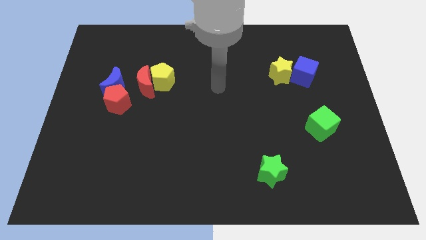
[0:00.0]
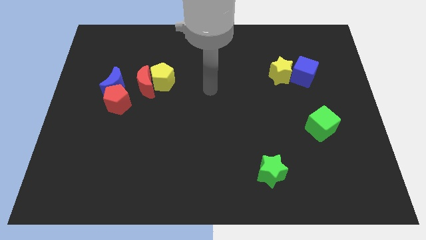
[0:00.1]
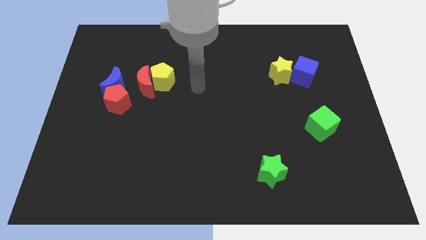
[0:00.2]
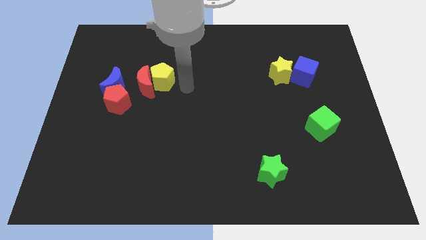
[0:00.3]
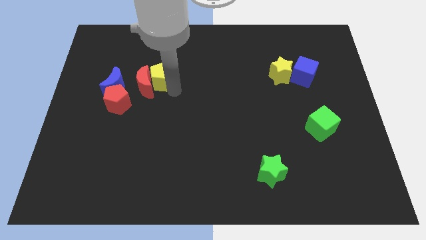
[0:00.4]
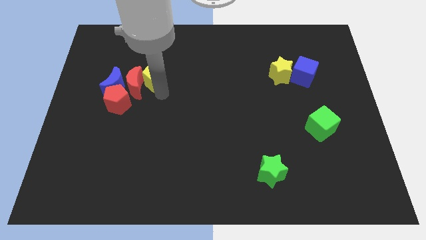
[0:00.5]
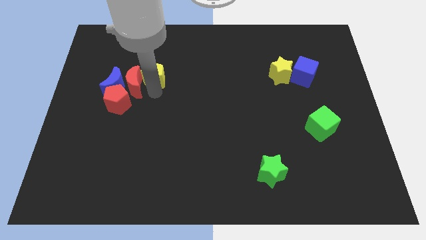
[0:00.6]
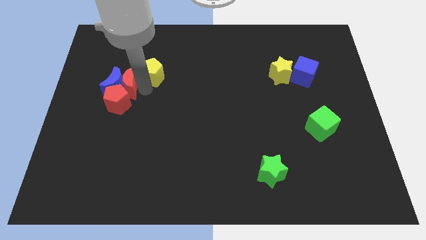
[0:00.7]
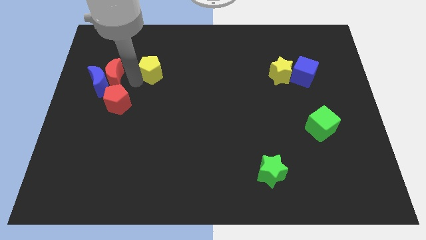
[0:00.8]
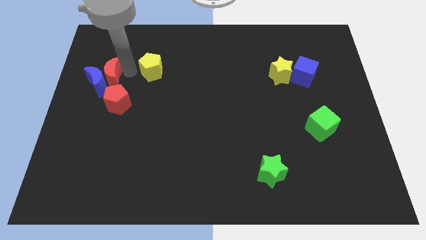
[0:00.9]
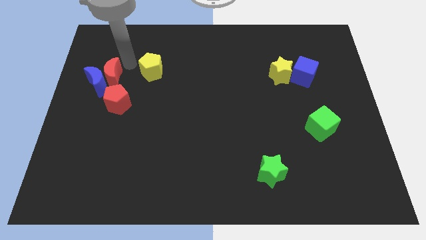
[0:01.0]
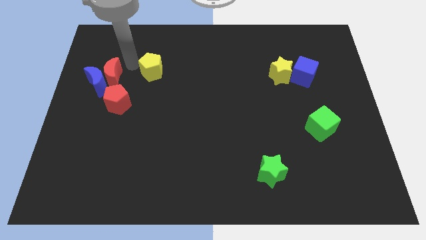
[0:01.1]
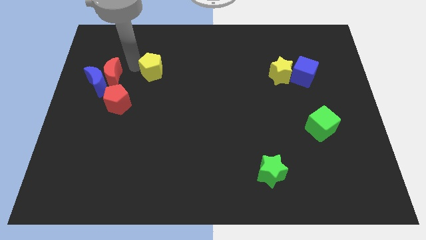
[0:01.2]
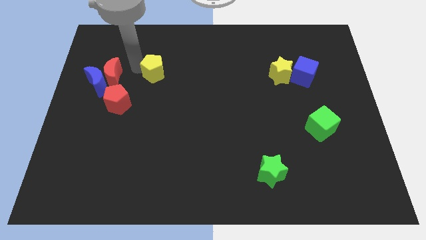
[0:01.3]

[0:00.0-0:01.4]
separate the yellow pentagon from the red moon

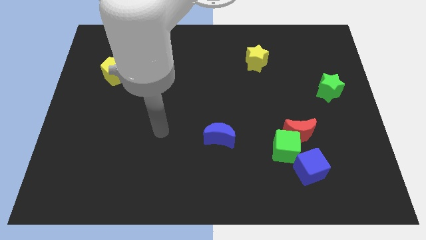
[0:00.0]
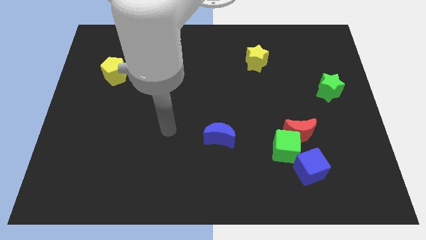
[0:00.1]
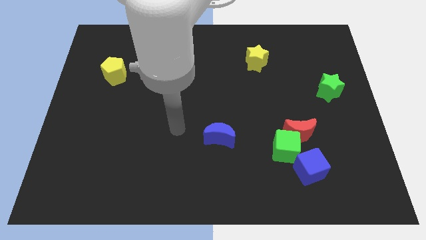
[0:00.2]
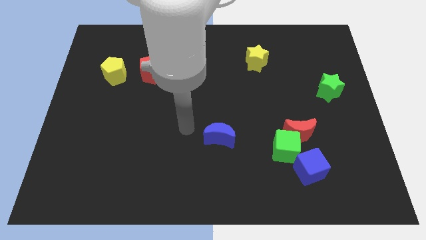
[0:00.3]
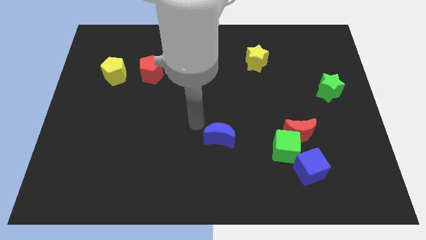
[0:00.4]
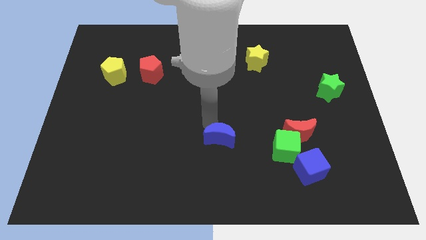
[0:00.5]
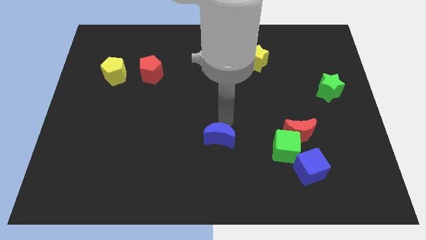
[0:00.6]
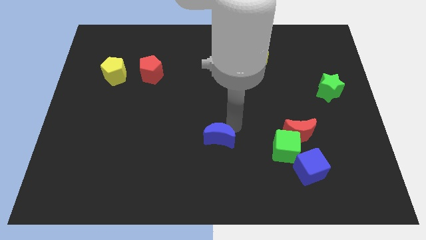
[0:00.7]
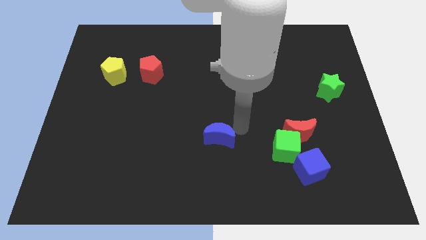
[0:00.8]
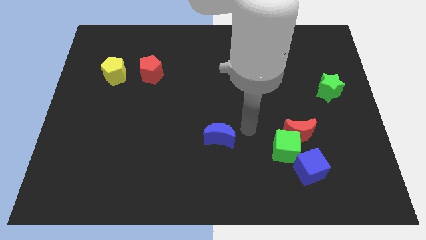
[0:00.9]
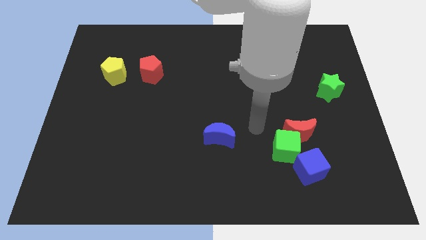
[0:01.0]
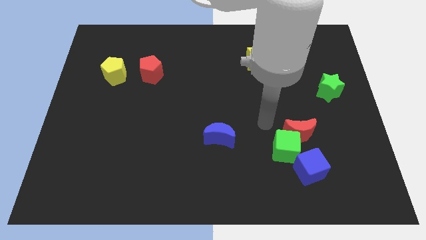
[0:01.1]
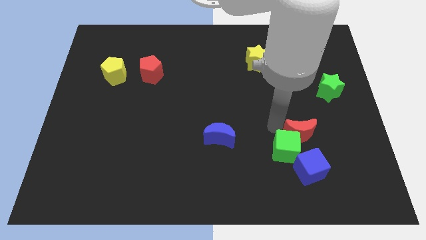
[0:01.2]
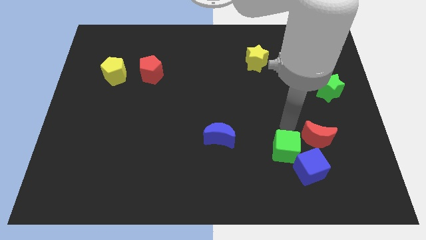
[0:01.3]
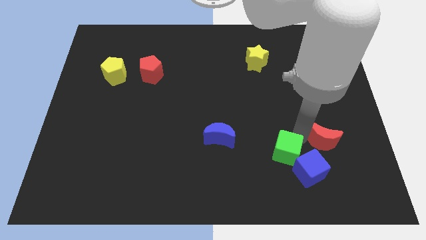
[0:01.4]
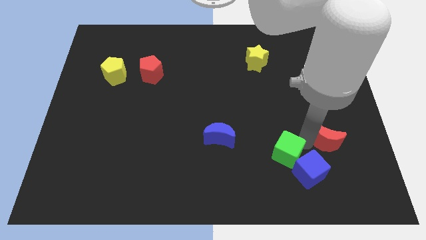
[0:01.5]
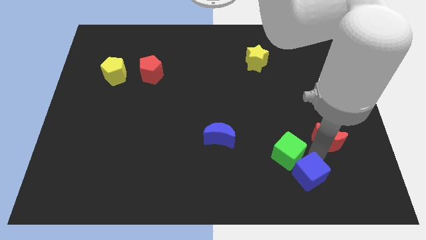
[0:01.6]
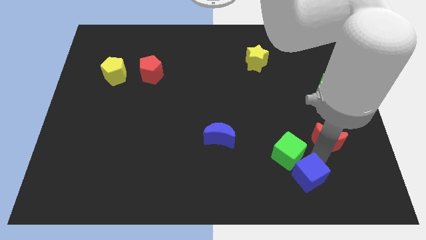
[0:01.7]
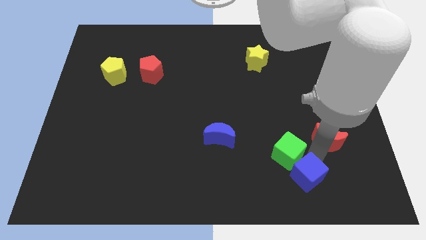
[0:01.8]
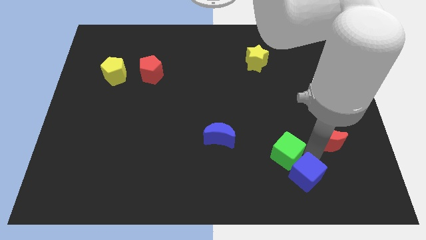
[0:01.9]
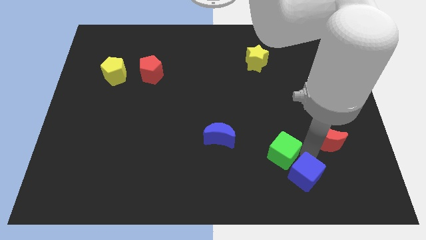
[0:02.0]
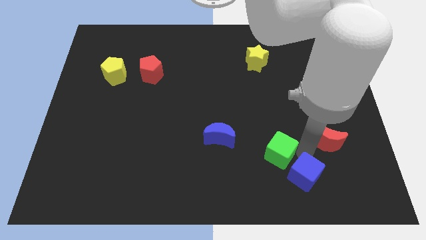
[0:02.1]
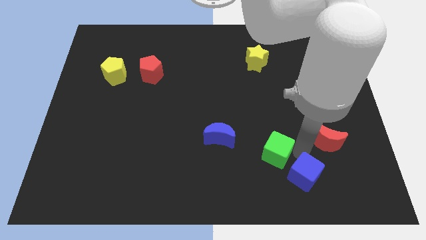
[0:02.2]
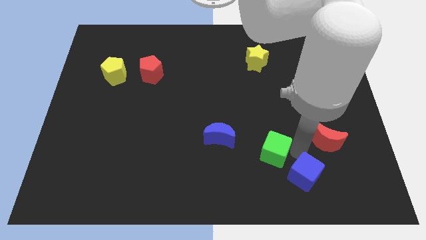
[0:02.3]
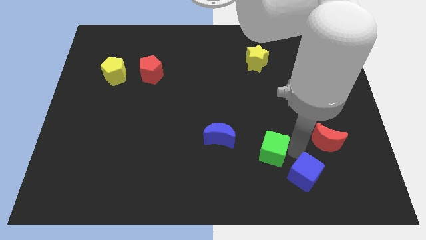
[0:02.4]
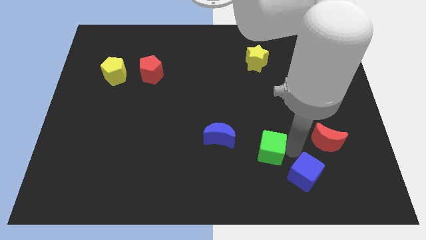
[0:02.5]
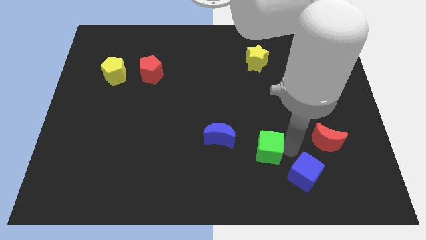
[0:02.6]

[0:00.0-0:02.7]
pull the green cube apart from the red moon and blue cube

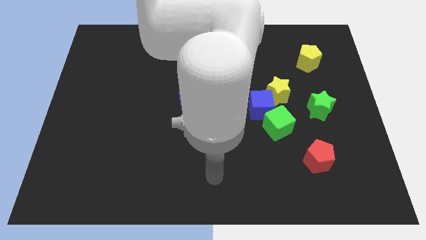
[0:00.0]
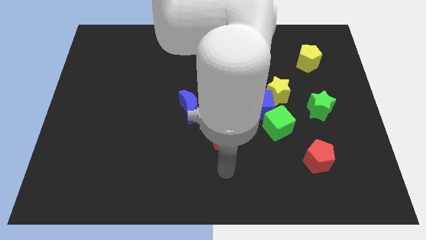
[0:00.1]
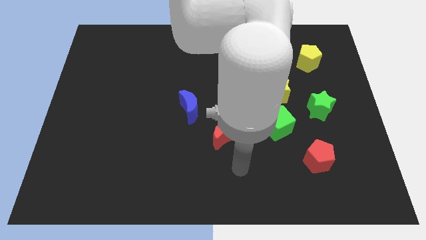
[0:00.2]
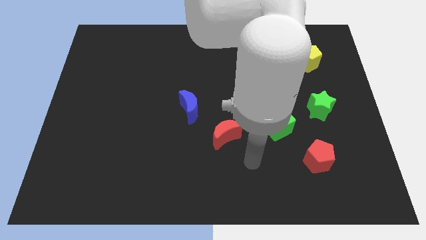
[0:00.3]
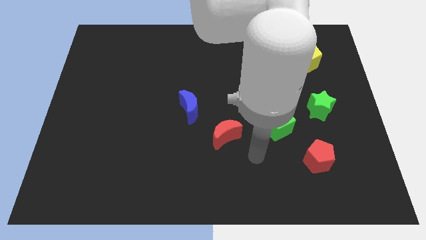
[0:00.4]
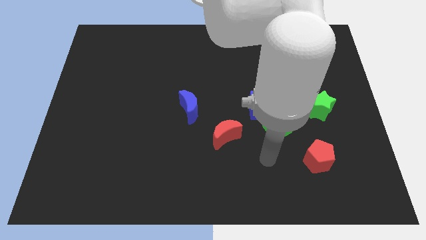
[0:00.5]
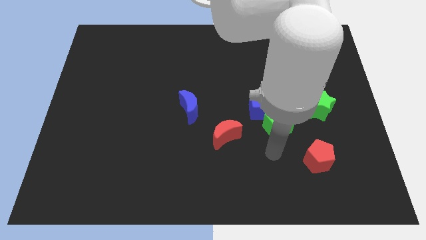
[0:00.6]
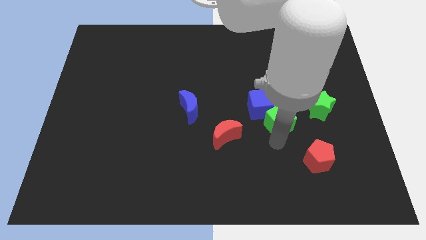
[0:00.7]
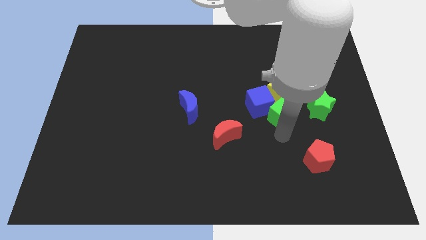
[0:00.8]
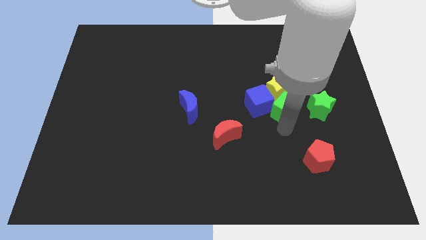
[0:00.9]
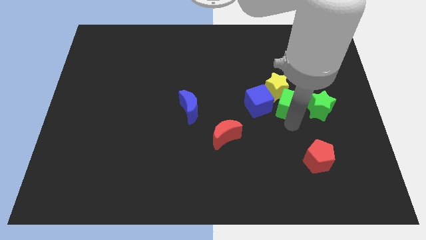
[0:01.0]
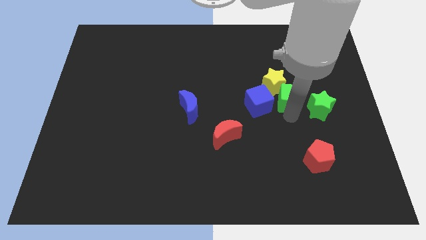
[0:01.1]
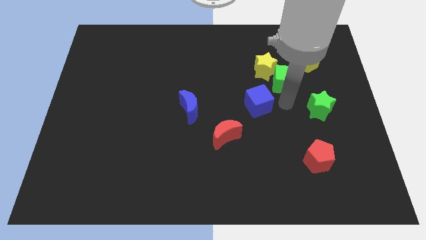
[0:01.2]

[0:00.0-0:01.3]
pull the blue cube apart from the green cube and yellow star

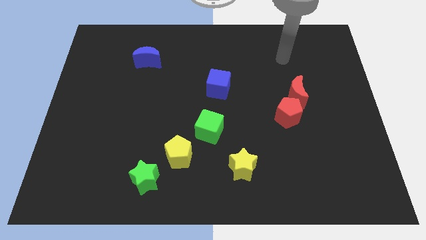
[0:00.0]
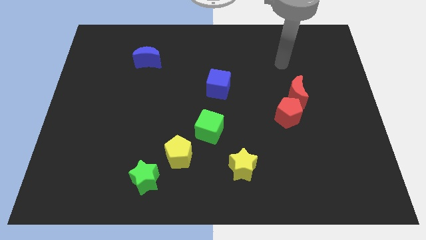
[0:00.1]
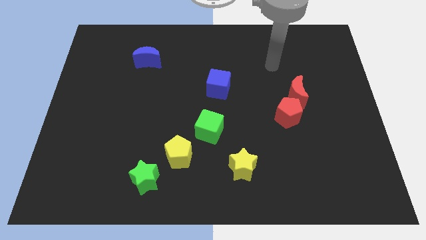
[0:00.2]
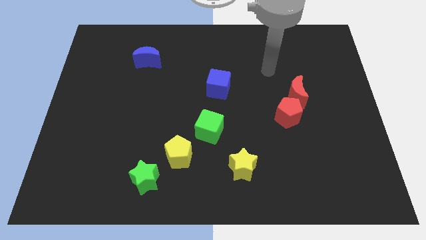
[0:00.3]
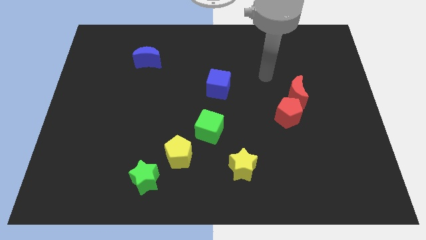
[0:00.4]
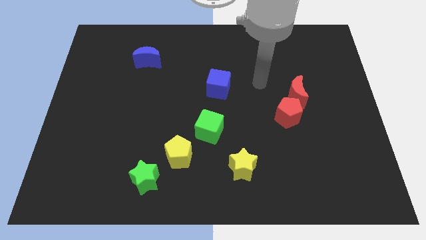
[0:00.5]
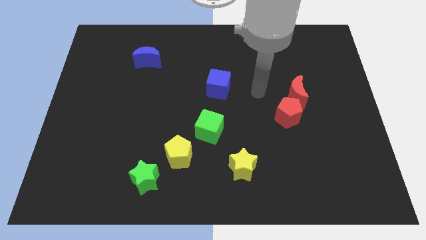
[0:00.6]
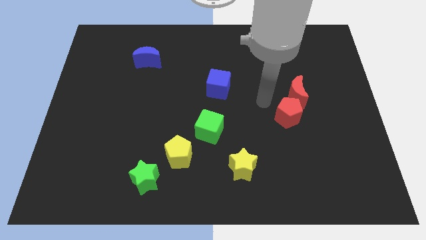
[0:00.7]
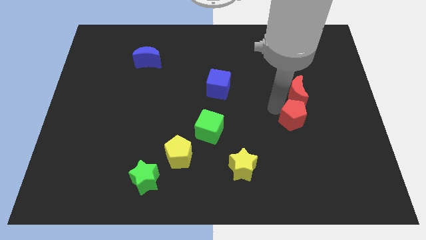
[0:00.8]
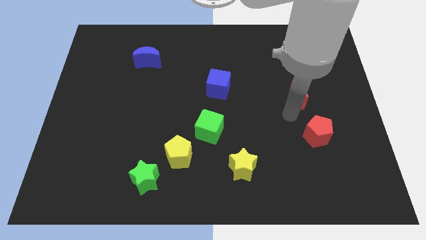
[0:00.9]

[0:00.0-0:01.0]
move the red moon away from the red pentagon

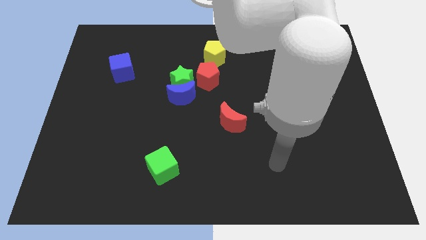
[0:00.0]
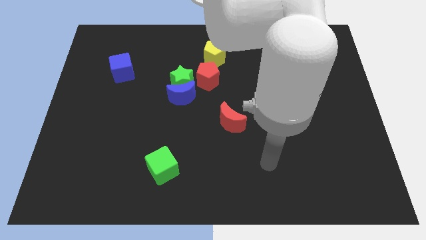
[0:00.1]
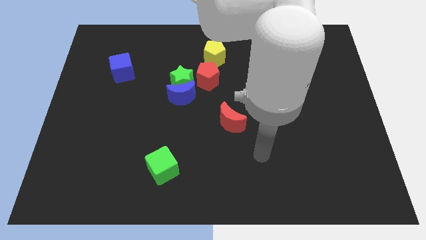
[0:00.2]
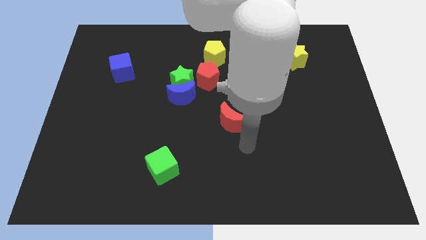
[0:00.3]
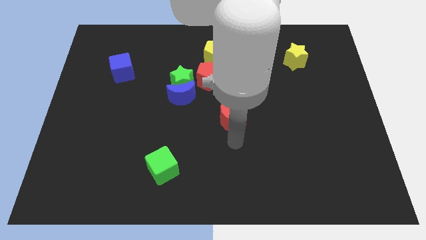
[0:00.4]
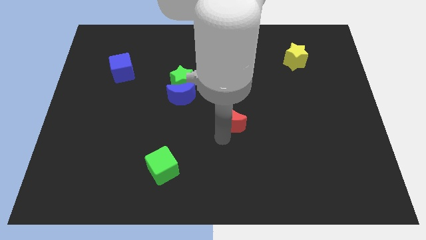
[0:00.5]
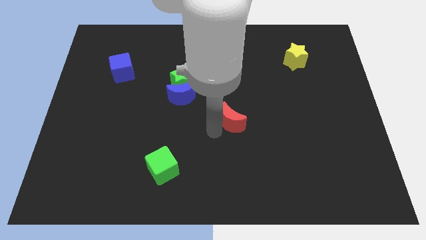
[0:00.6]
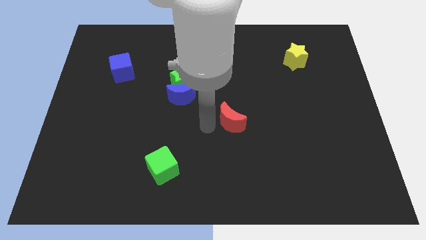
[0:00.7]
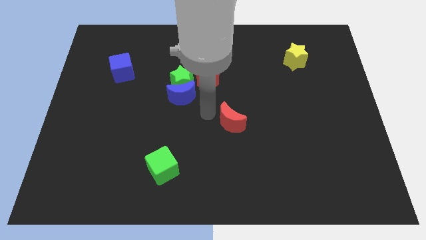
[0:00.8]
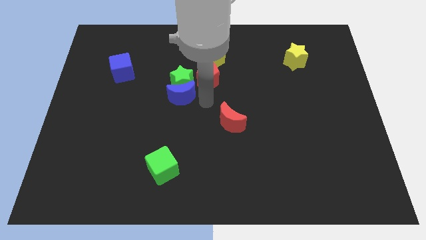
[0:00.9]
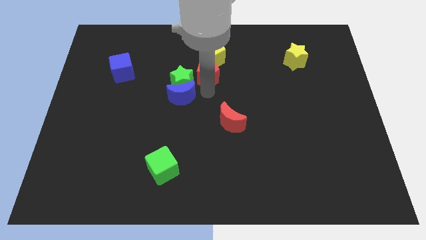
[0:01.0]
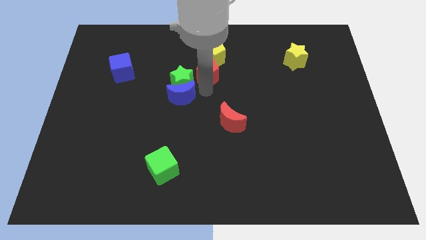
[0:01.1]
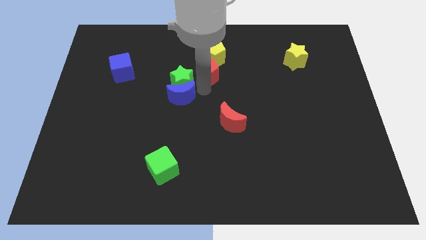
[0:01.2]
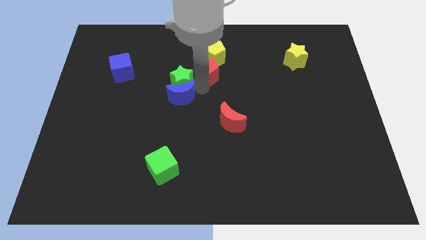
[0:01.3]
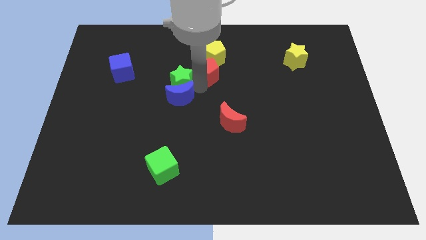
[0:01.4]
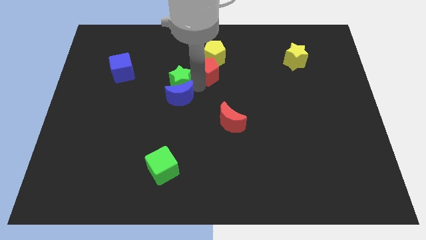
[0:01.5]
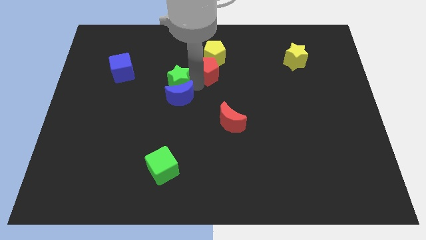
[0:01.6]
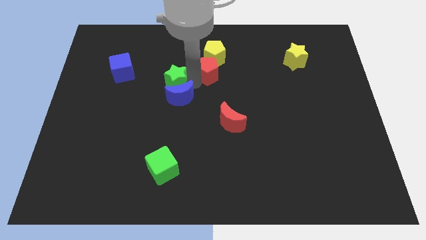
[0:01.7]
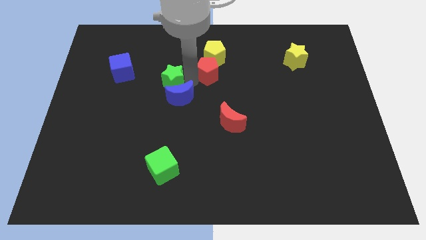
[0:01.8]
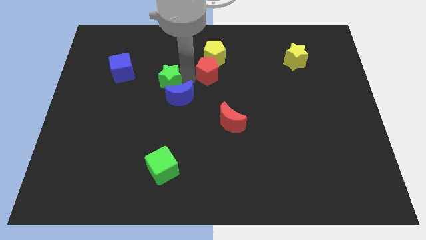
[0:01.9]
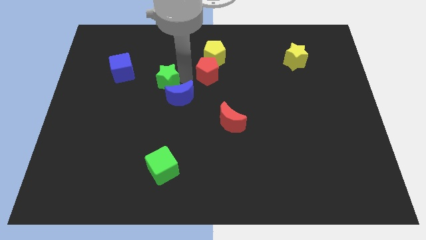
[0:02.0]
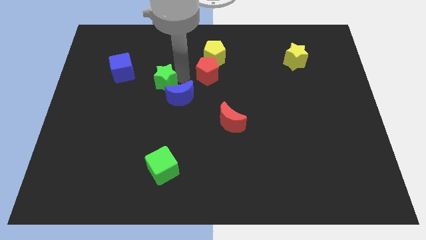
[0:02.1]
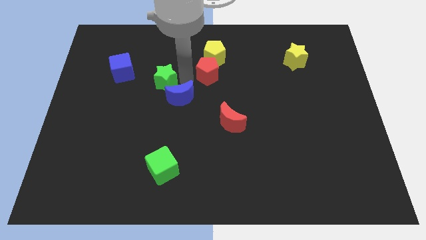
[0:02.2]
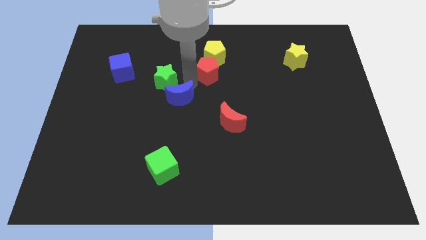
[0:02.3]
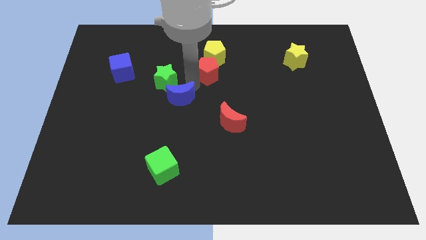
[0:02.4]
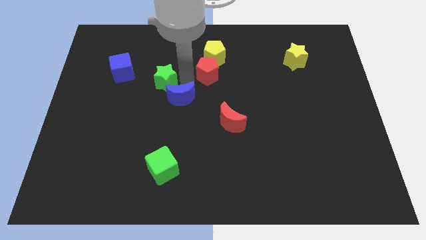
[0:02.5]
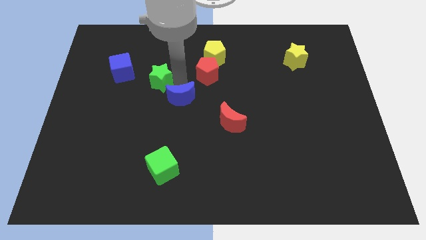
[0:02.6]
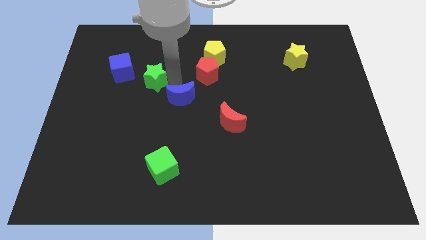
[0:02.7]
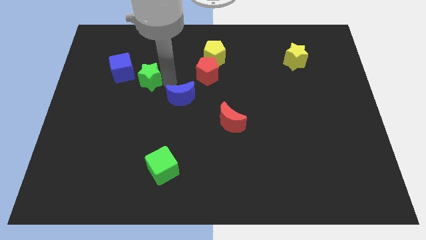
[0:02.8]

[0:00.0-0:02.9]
separate the green star from the blue moon and red pentagon
